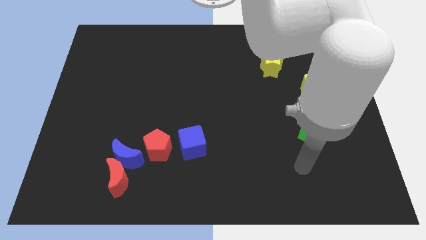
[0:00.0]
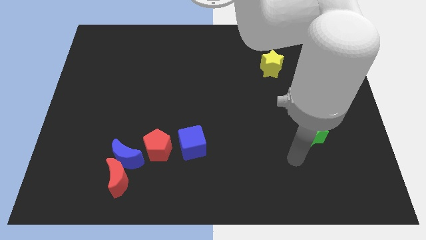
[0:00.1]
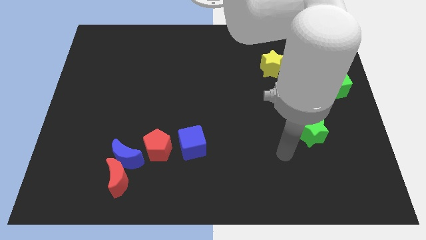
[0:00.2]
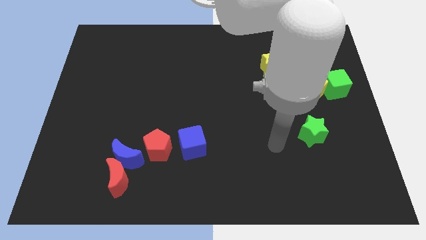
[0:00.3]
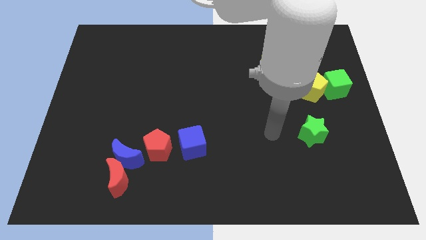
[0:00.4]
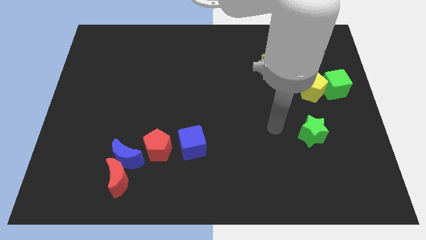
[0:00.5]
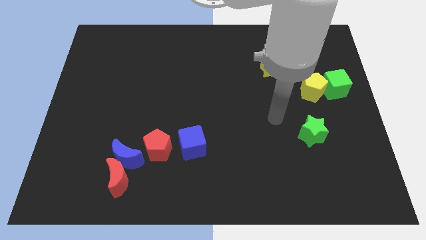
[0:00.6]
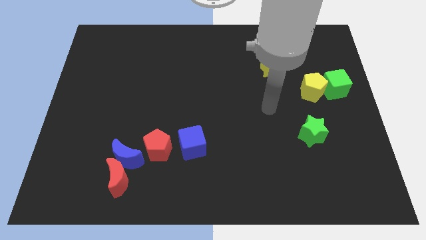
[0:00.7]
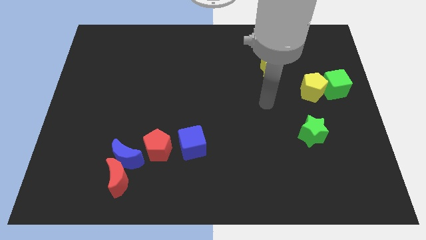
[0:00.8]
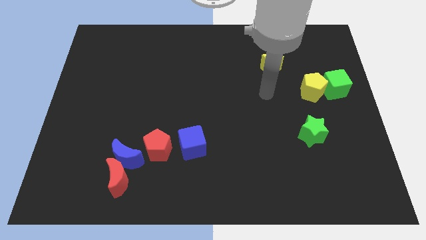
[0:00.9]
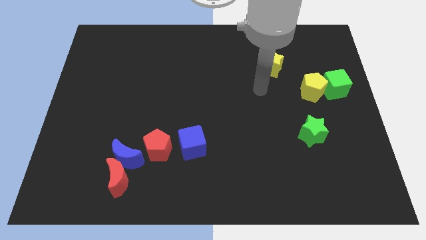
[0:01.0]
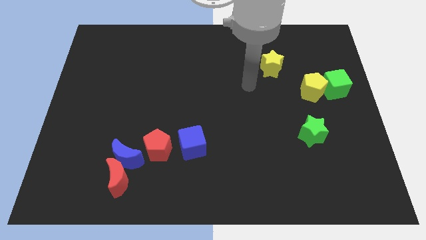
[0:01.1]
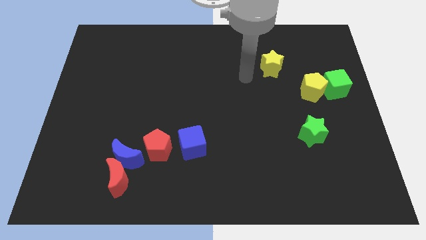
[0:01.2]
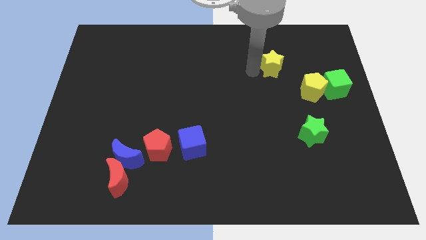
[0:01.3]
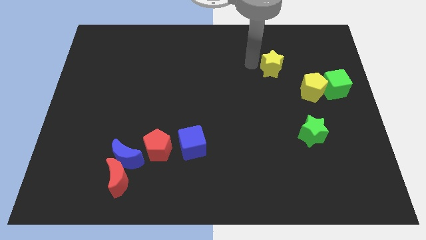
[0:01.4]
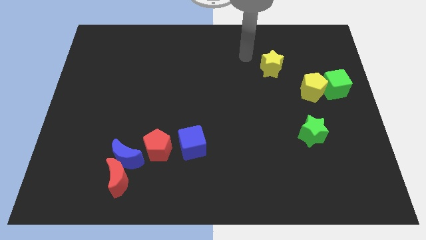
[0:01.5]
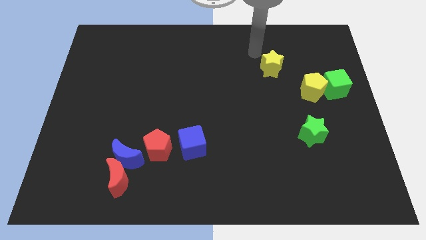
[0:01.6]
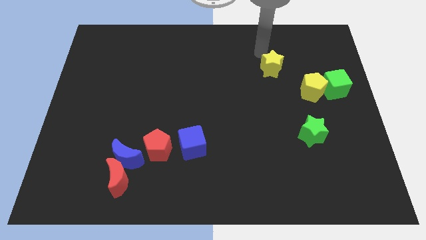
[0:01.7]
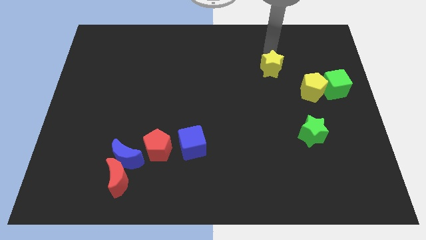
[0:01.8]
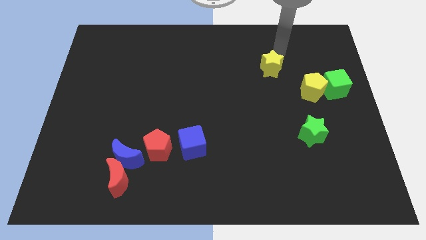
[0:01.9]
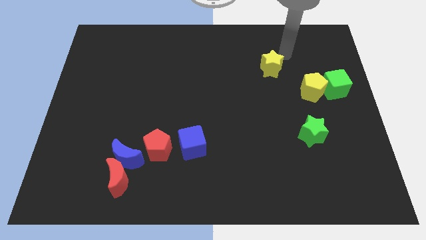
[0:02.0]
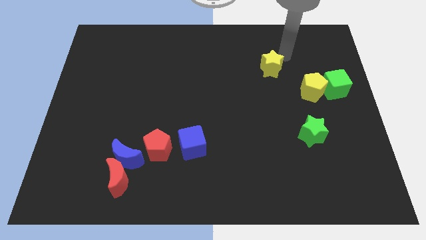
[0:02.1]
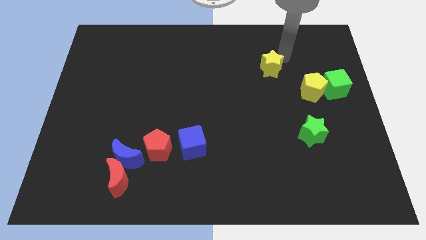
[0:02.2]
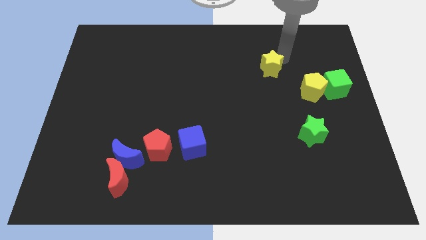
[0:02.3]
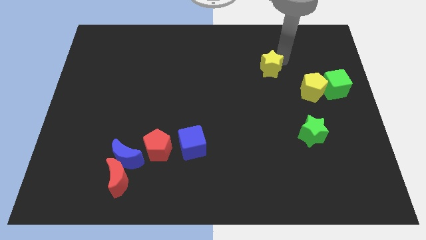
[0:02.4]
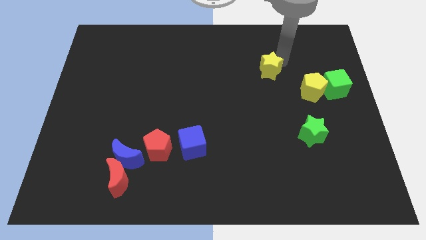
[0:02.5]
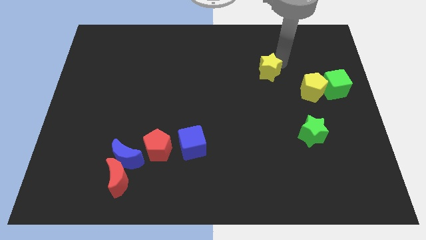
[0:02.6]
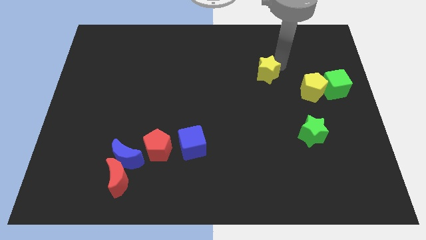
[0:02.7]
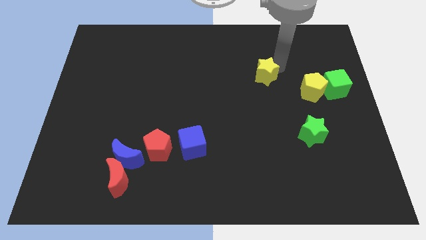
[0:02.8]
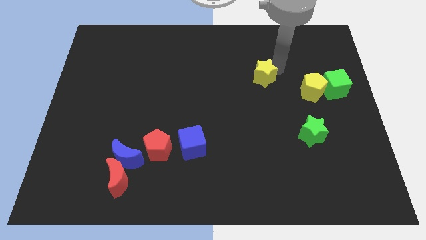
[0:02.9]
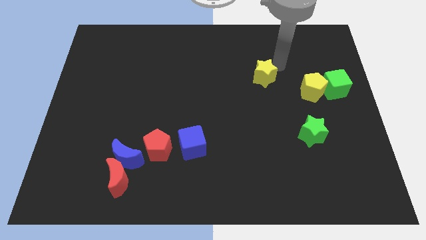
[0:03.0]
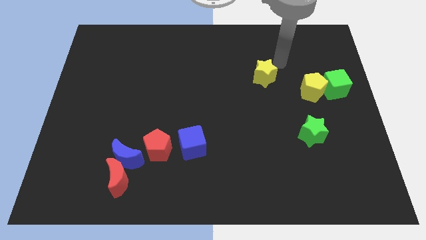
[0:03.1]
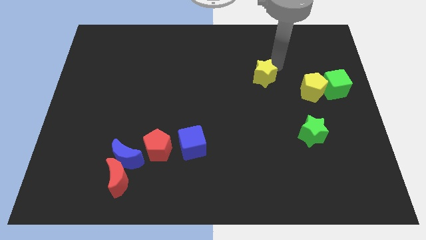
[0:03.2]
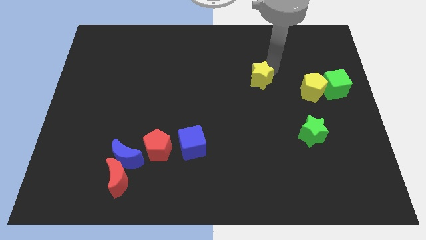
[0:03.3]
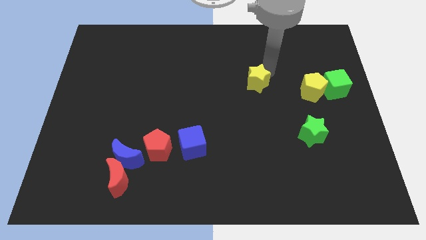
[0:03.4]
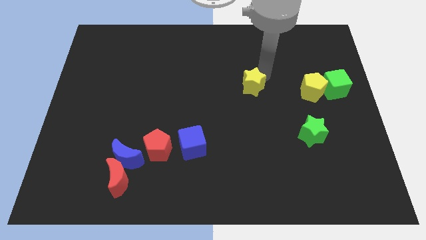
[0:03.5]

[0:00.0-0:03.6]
slightly slide the yellow star down and to the left diagonally

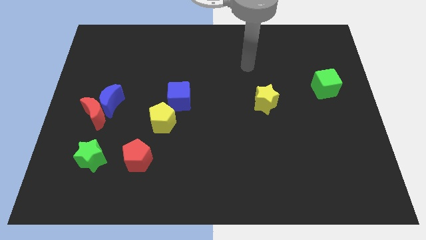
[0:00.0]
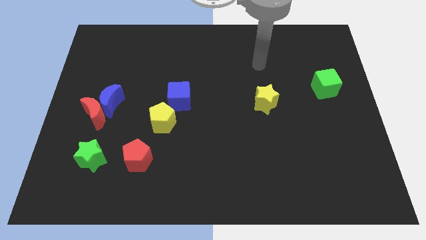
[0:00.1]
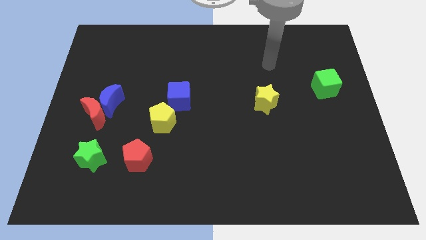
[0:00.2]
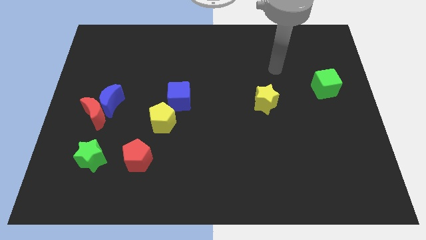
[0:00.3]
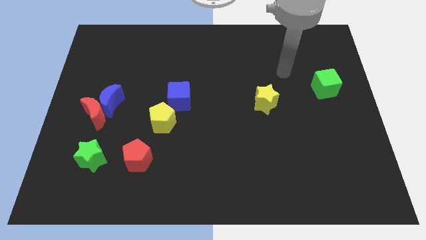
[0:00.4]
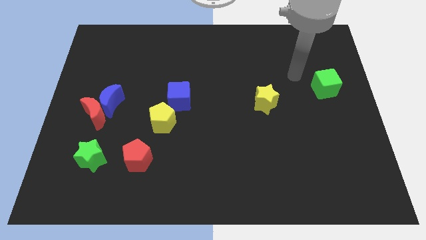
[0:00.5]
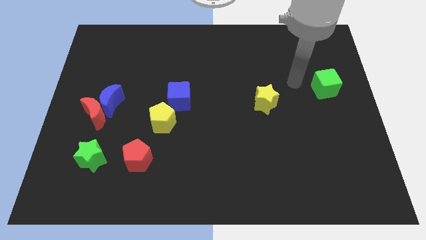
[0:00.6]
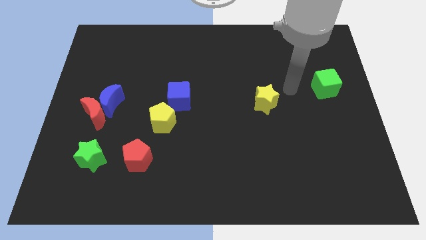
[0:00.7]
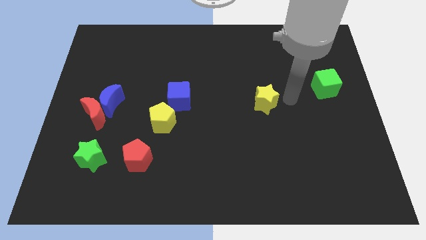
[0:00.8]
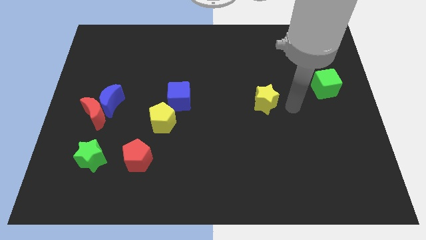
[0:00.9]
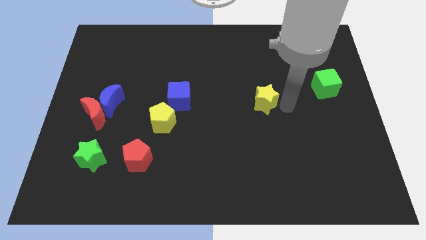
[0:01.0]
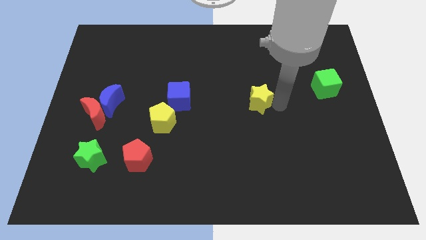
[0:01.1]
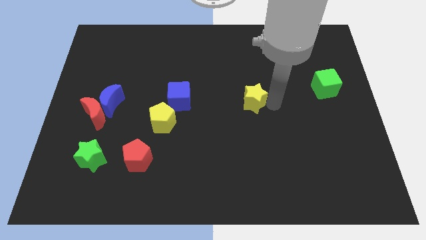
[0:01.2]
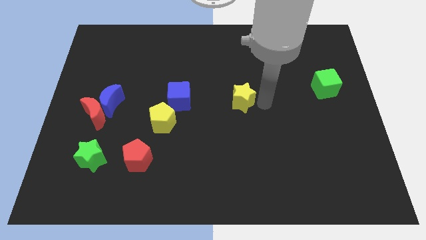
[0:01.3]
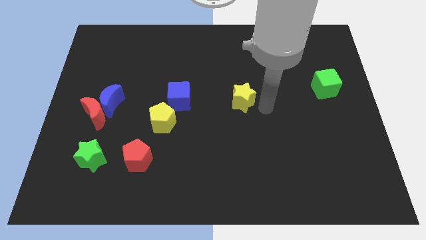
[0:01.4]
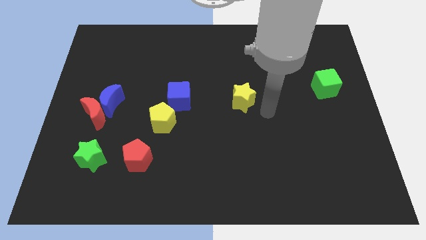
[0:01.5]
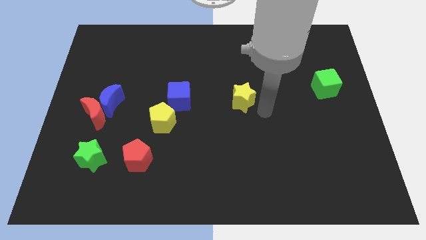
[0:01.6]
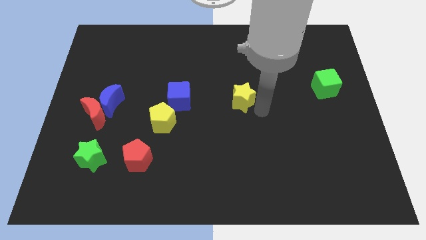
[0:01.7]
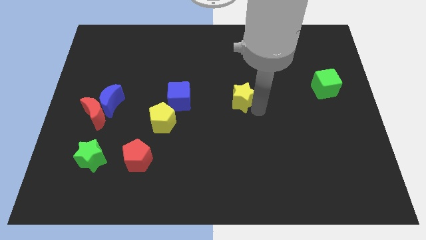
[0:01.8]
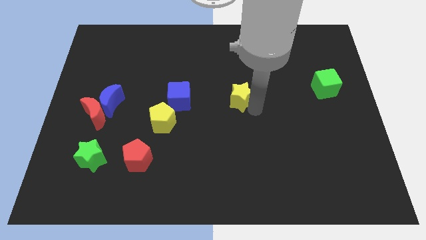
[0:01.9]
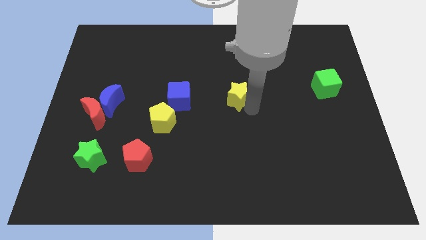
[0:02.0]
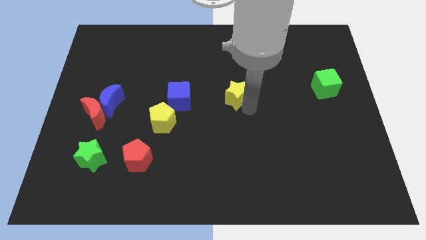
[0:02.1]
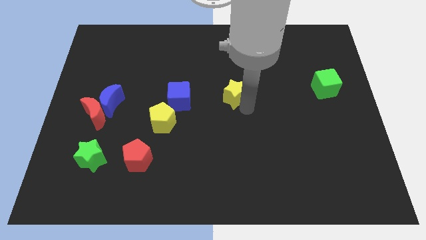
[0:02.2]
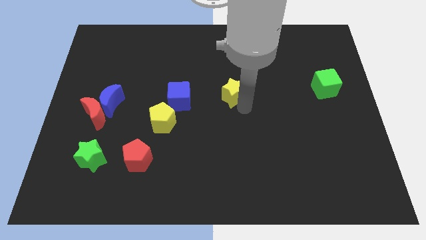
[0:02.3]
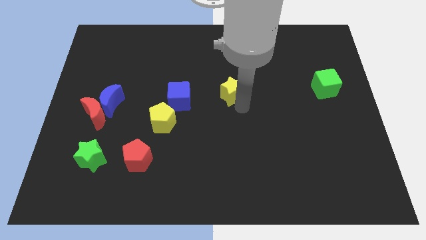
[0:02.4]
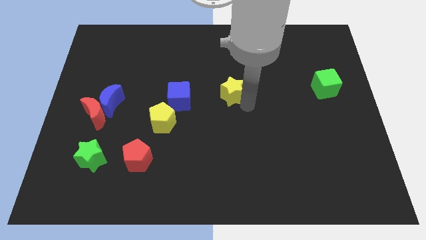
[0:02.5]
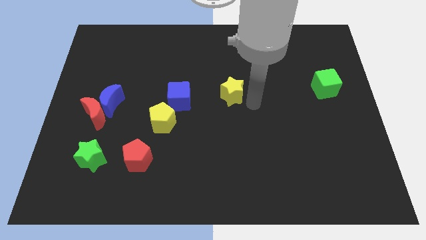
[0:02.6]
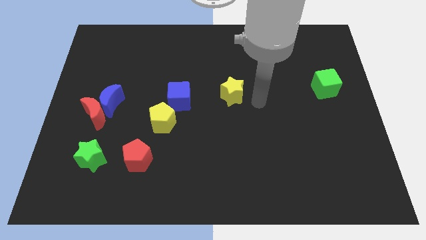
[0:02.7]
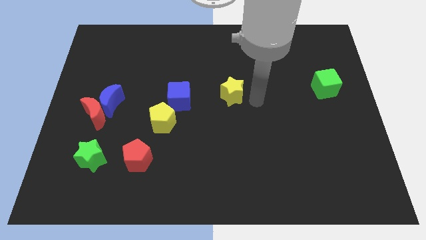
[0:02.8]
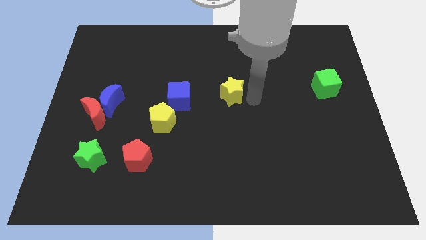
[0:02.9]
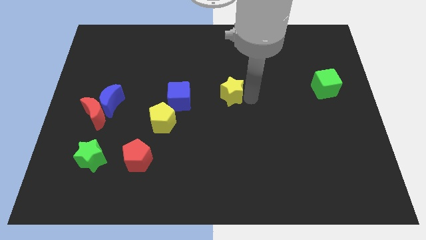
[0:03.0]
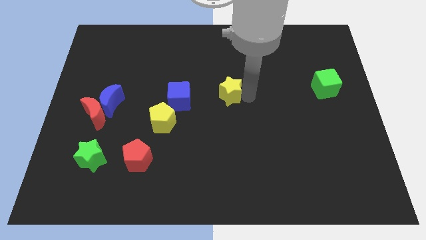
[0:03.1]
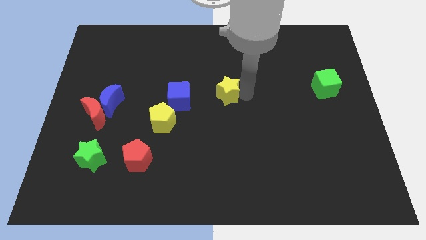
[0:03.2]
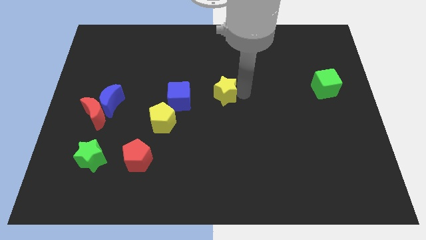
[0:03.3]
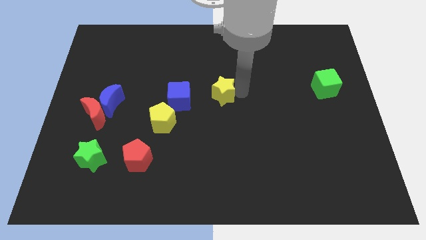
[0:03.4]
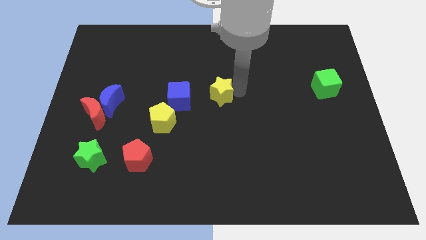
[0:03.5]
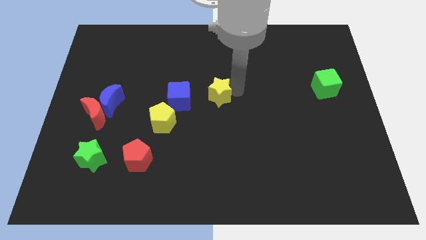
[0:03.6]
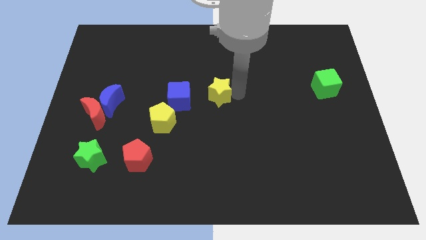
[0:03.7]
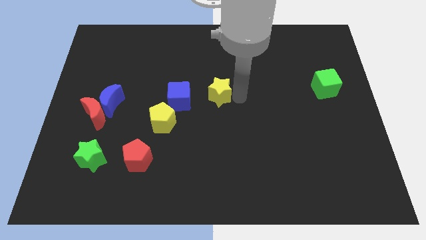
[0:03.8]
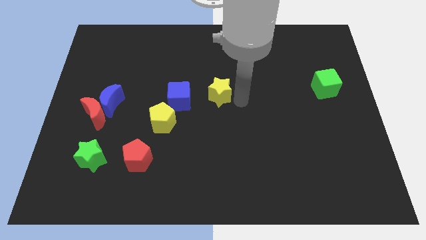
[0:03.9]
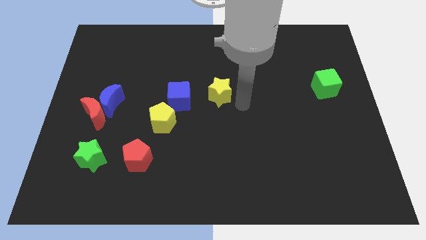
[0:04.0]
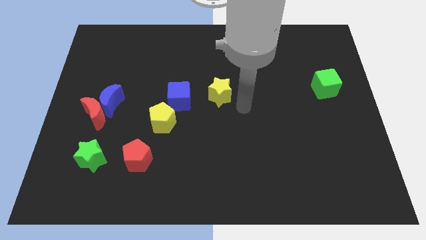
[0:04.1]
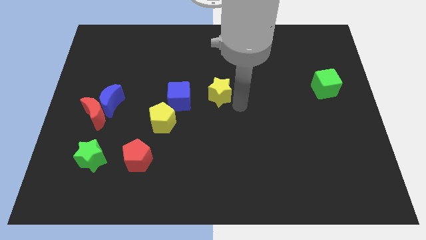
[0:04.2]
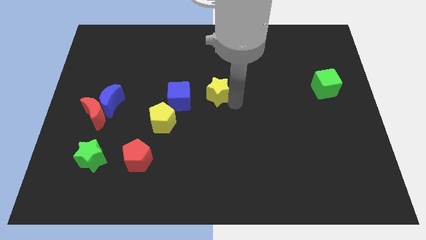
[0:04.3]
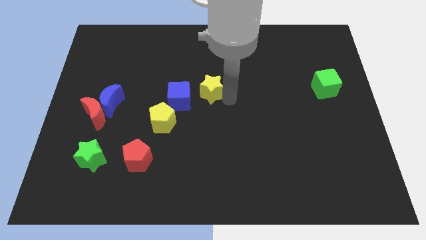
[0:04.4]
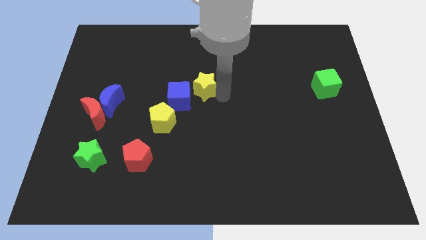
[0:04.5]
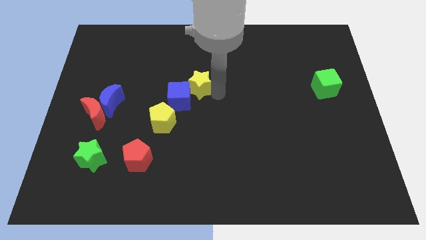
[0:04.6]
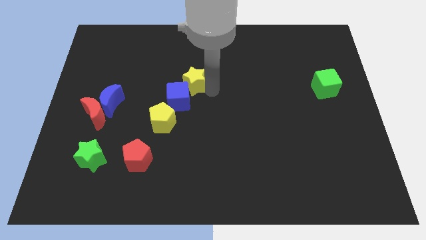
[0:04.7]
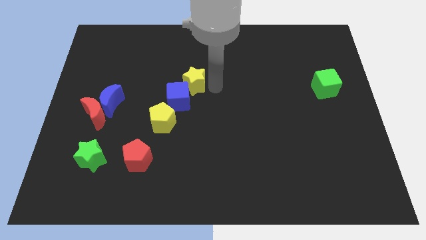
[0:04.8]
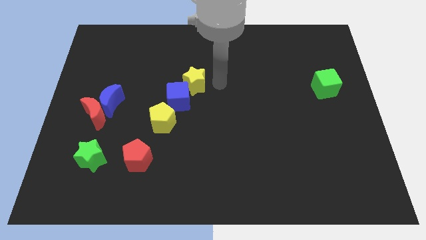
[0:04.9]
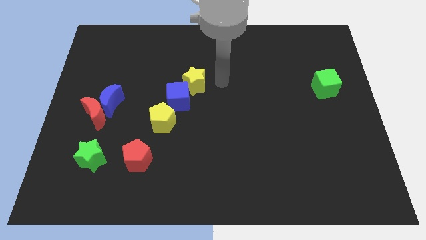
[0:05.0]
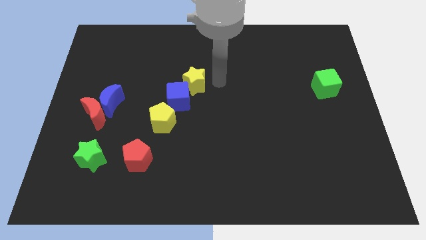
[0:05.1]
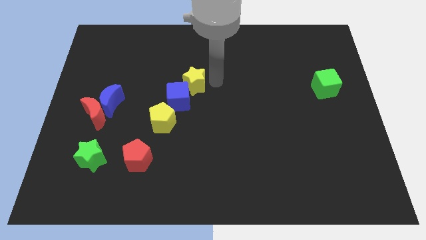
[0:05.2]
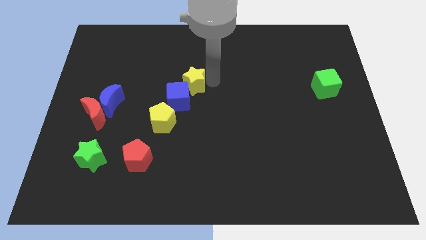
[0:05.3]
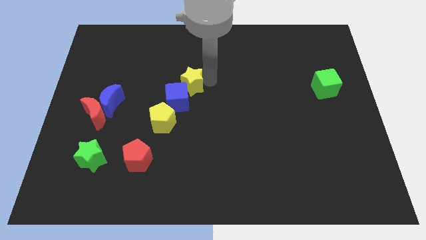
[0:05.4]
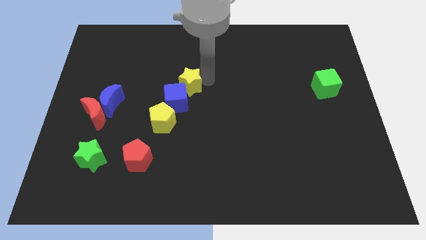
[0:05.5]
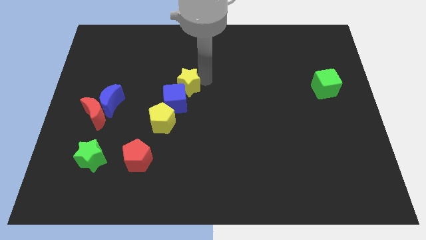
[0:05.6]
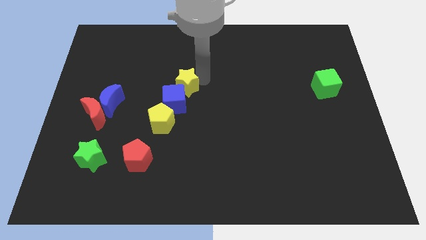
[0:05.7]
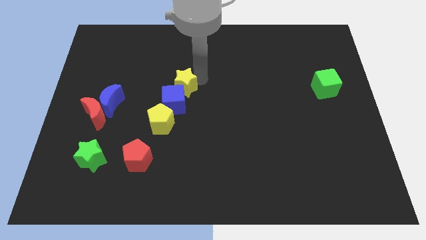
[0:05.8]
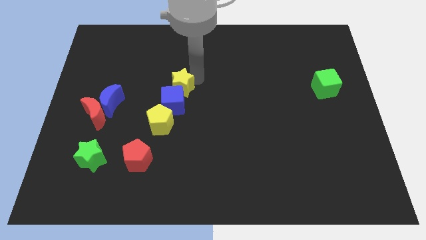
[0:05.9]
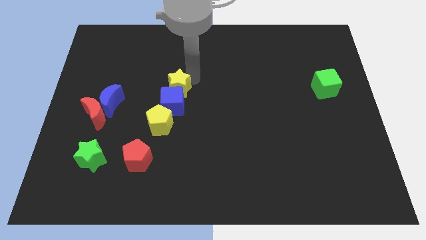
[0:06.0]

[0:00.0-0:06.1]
slide the yellow star left
